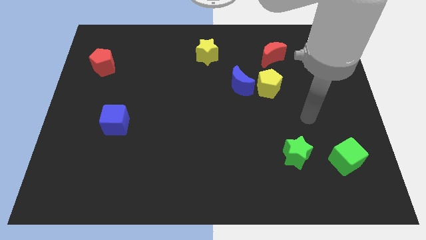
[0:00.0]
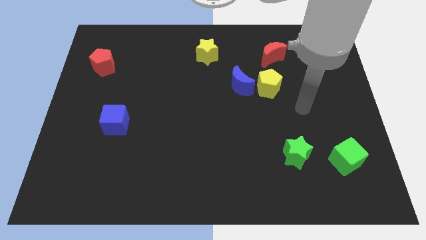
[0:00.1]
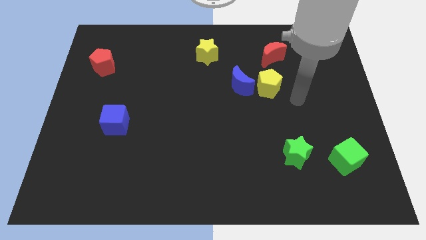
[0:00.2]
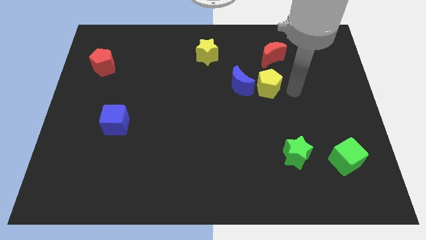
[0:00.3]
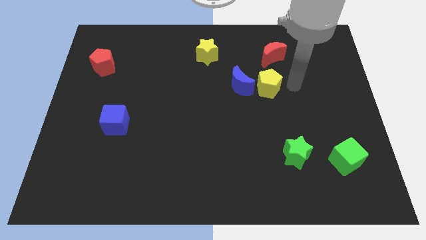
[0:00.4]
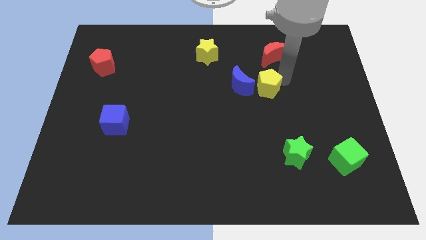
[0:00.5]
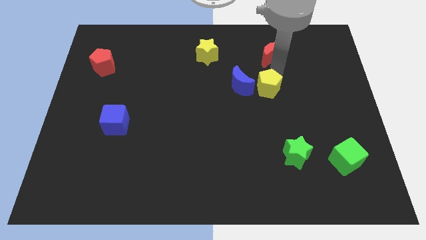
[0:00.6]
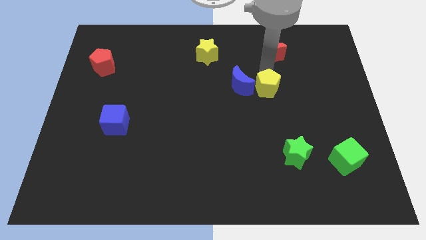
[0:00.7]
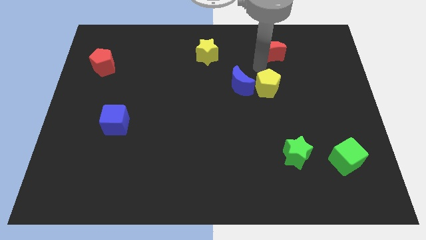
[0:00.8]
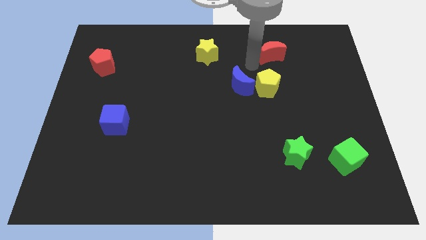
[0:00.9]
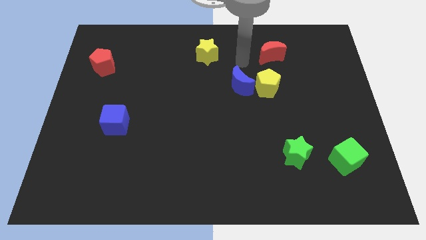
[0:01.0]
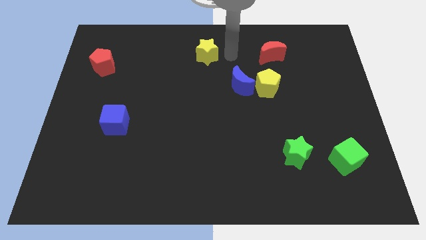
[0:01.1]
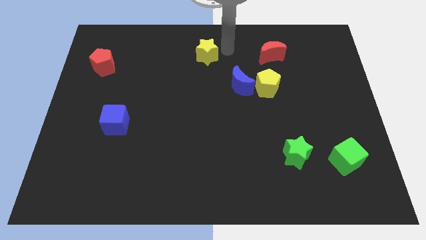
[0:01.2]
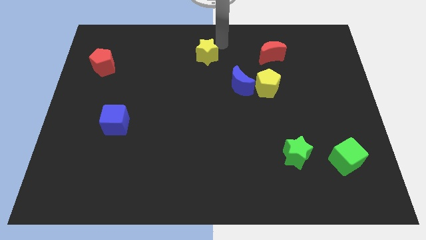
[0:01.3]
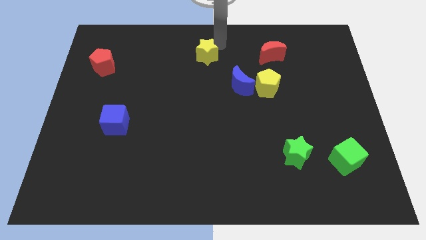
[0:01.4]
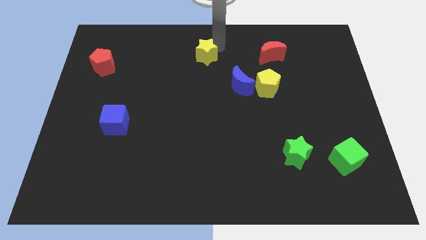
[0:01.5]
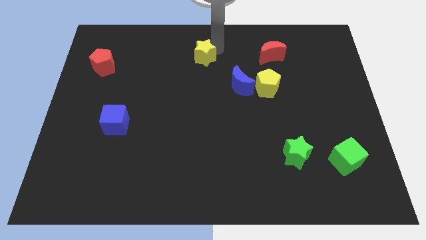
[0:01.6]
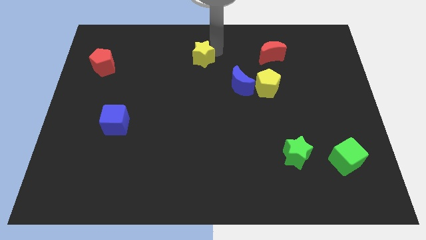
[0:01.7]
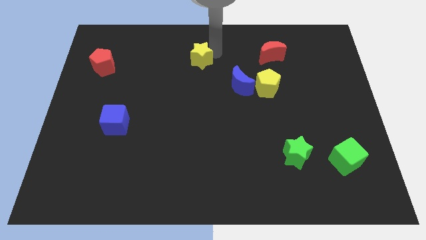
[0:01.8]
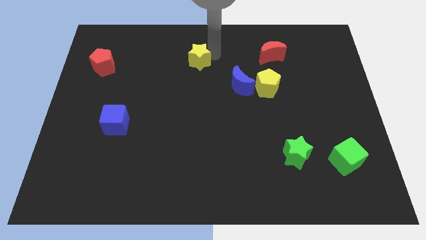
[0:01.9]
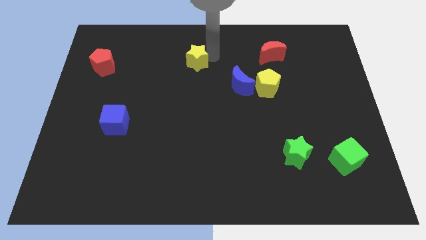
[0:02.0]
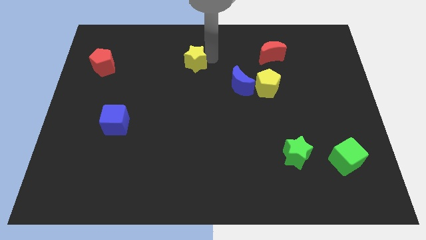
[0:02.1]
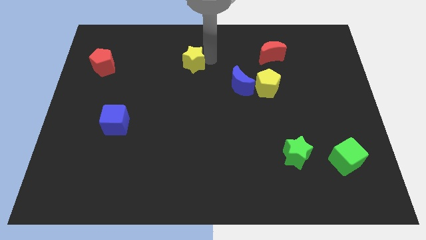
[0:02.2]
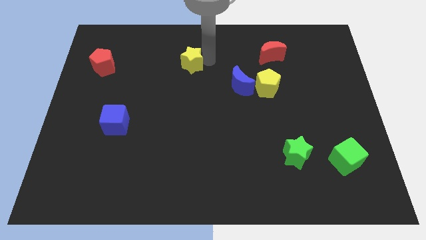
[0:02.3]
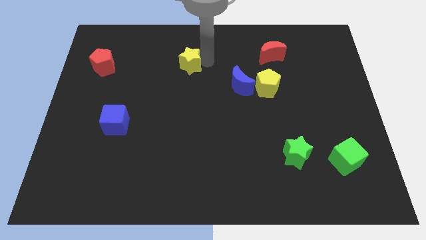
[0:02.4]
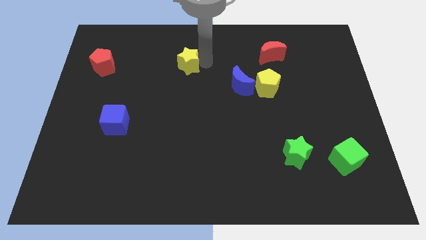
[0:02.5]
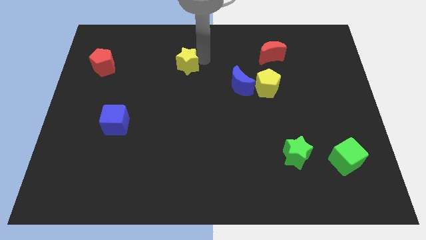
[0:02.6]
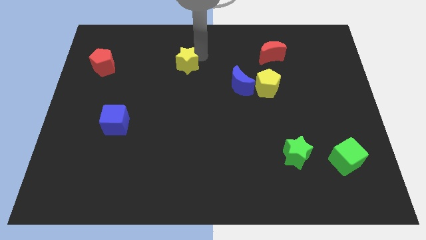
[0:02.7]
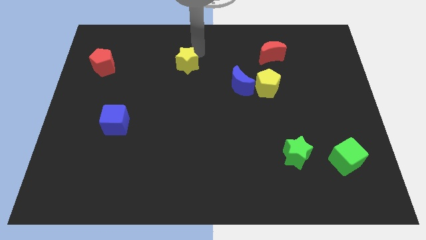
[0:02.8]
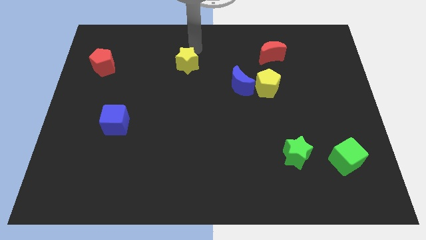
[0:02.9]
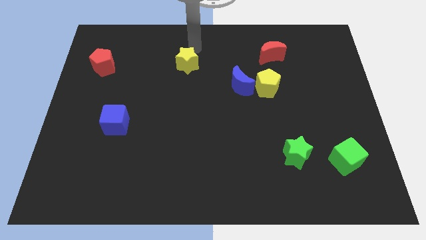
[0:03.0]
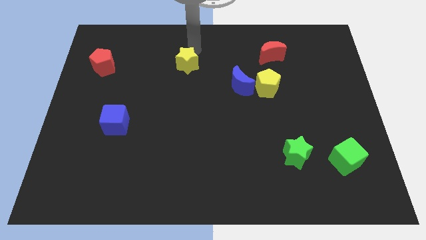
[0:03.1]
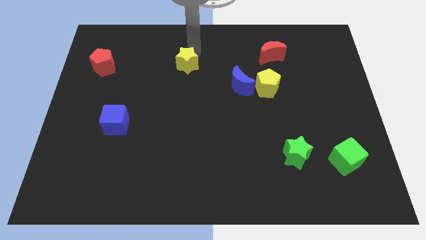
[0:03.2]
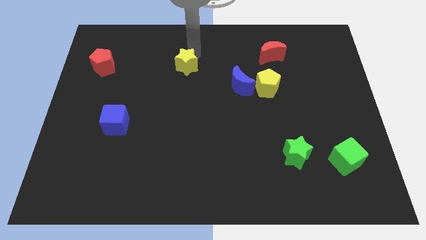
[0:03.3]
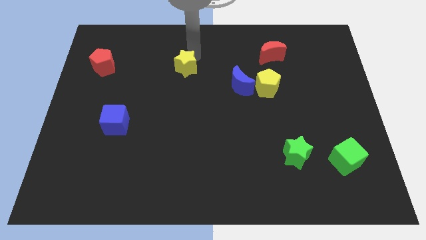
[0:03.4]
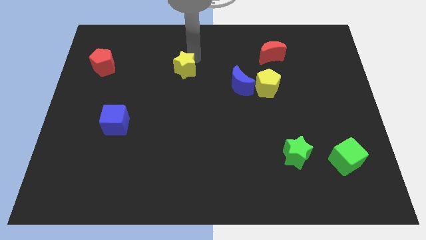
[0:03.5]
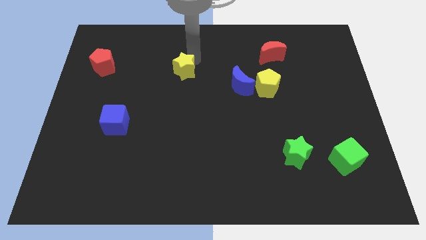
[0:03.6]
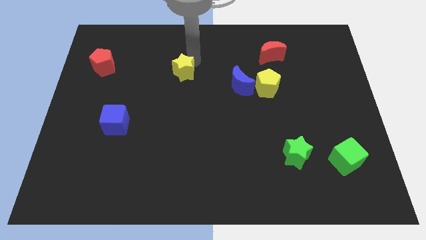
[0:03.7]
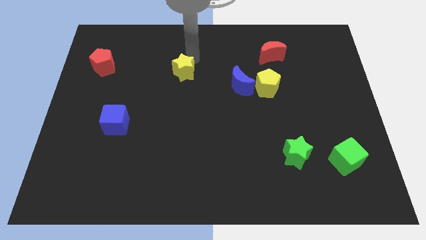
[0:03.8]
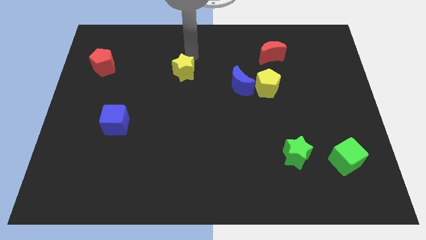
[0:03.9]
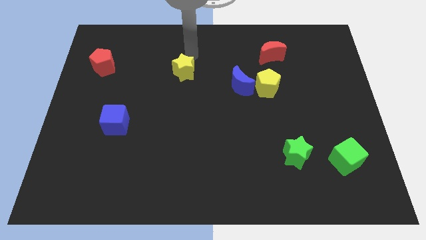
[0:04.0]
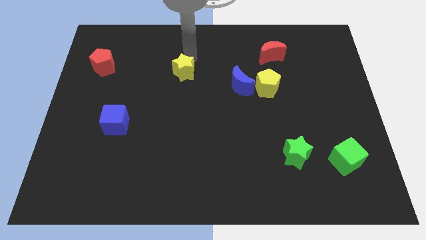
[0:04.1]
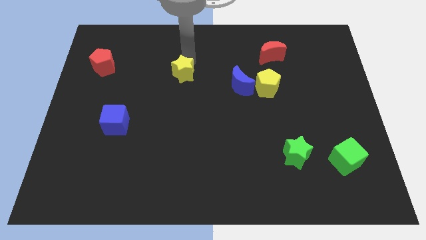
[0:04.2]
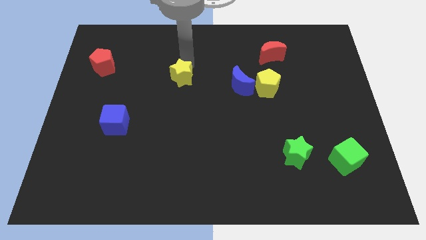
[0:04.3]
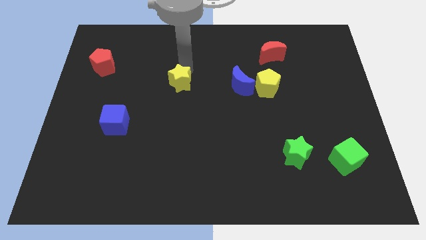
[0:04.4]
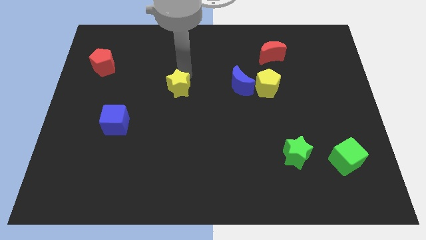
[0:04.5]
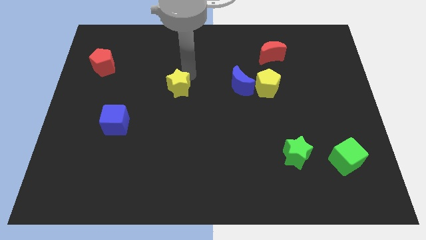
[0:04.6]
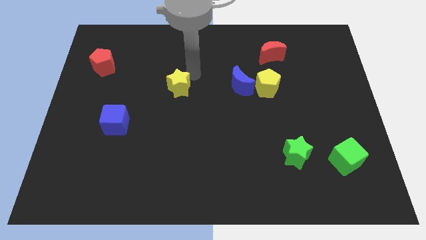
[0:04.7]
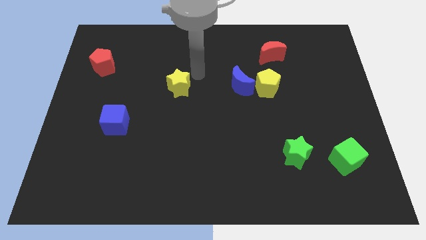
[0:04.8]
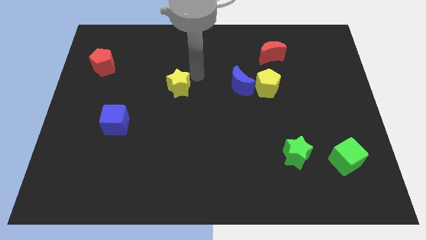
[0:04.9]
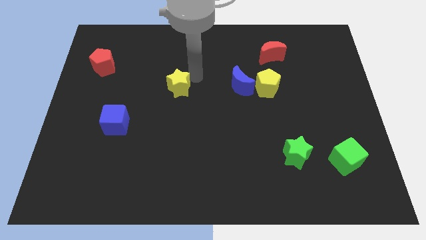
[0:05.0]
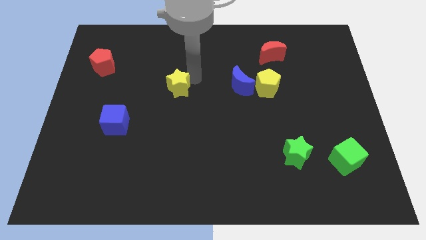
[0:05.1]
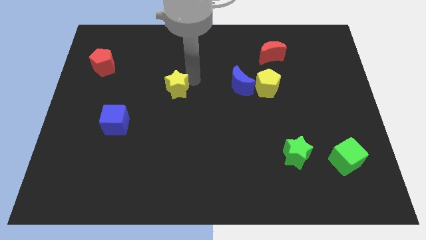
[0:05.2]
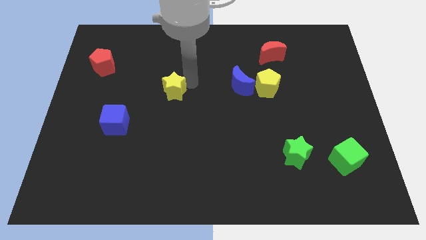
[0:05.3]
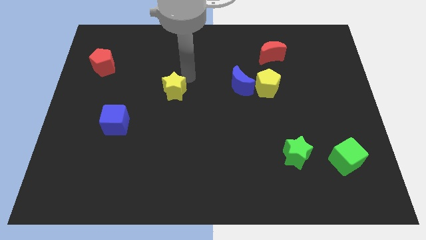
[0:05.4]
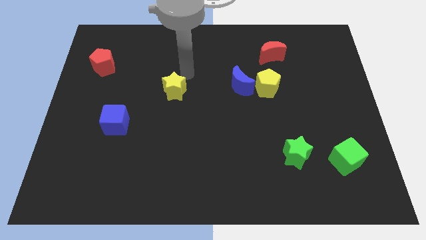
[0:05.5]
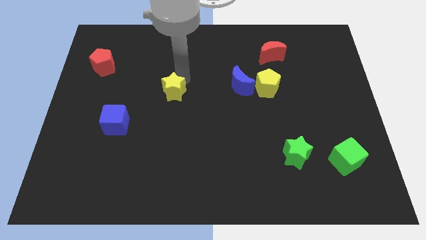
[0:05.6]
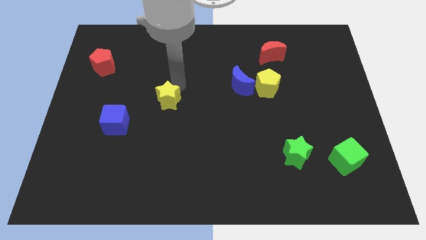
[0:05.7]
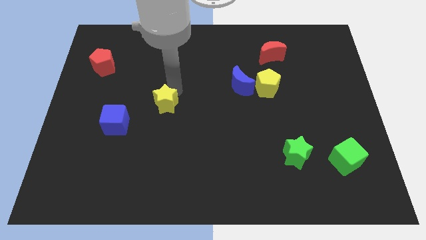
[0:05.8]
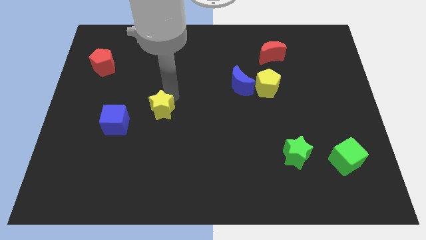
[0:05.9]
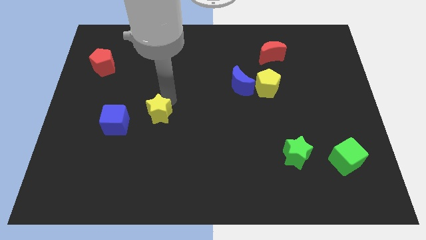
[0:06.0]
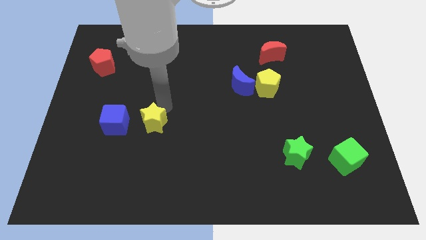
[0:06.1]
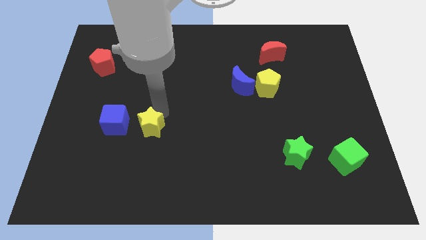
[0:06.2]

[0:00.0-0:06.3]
slide the yellow star to the bottom right side of the blue cube

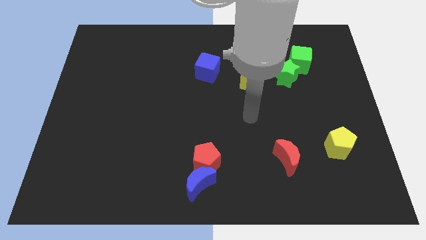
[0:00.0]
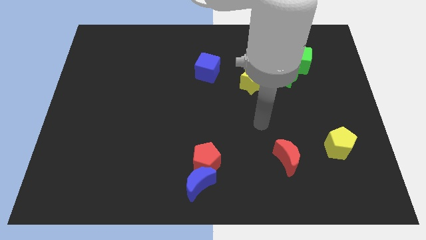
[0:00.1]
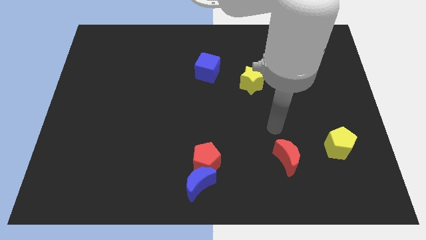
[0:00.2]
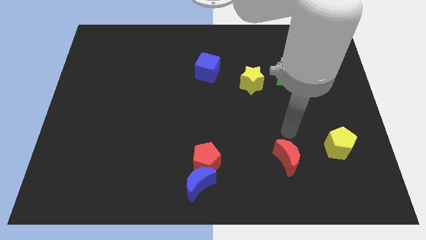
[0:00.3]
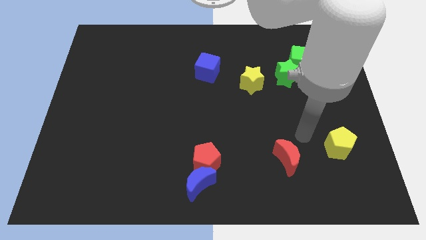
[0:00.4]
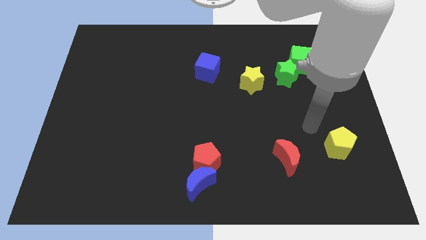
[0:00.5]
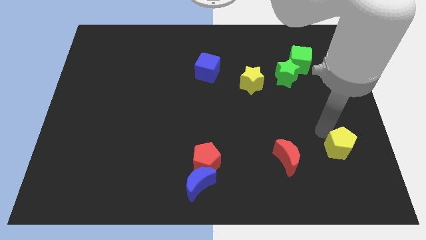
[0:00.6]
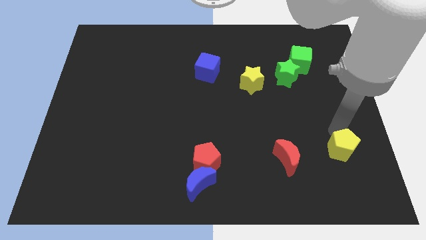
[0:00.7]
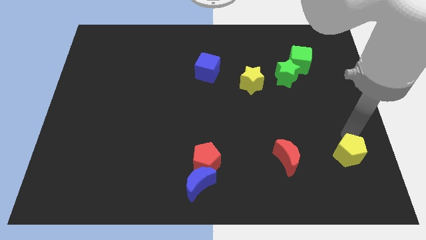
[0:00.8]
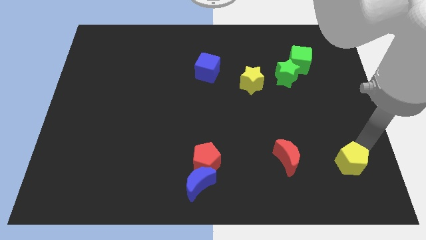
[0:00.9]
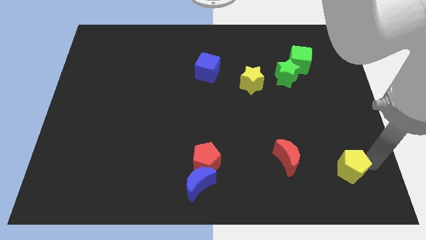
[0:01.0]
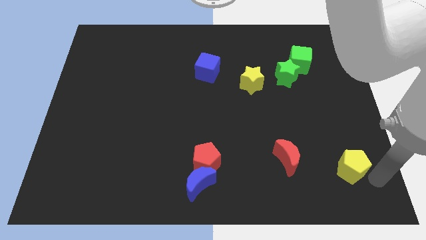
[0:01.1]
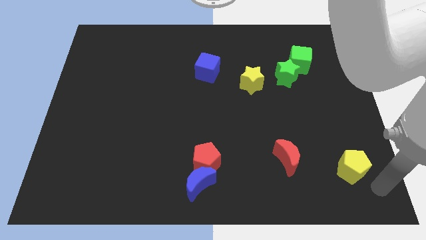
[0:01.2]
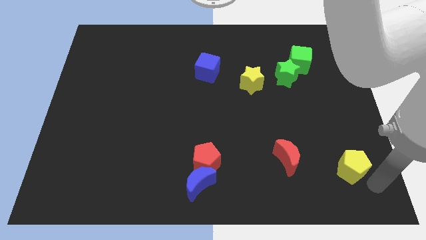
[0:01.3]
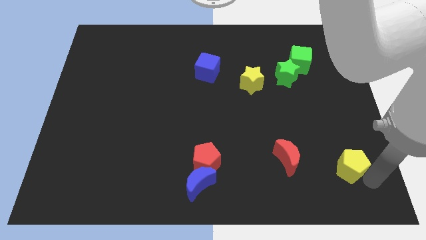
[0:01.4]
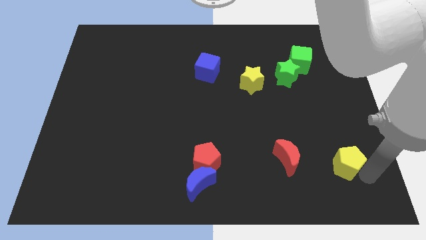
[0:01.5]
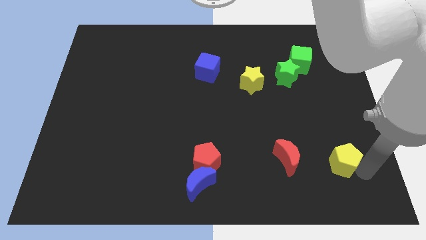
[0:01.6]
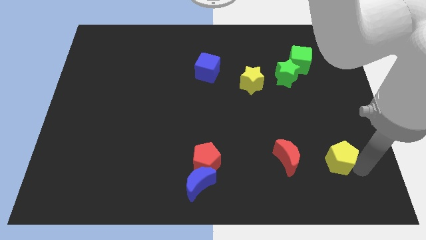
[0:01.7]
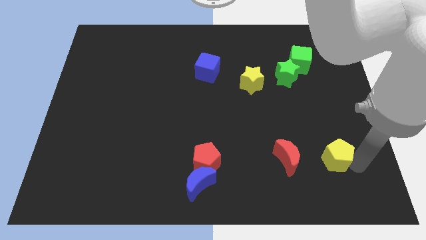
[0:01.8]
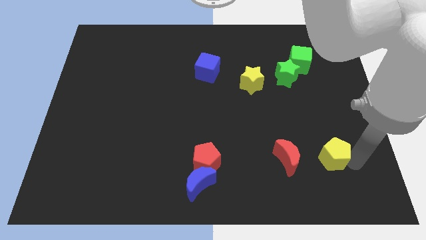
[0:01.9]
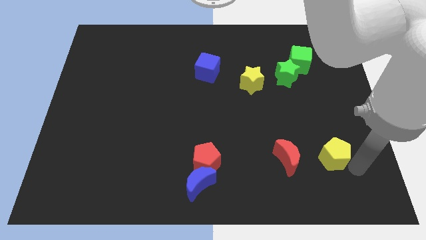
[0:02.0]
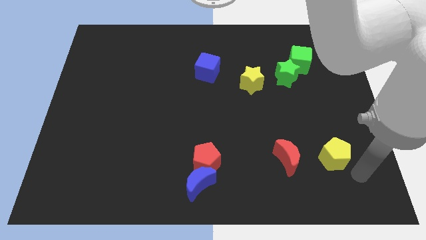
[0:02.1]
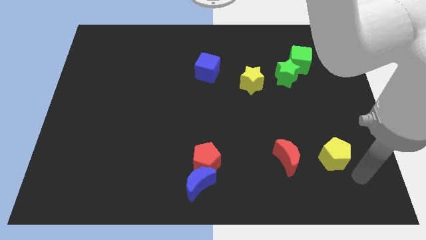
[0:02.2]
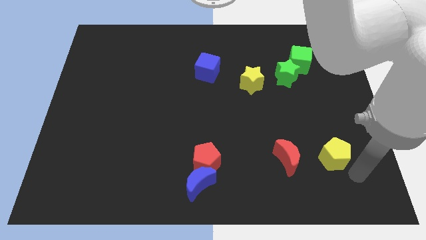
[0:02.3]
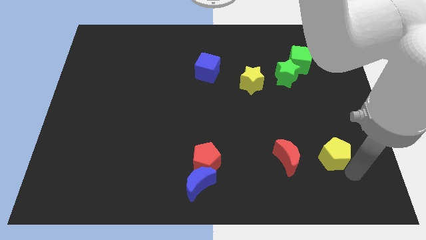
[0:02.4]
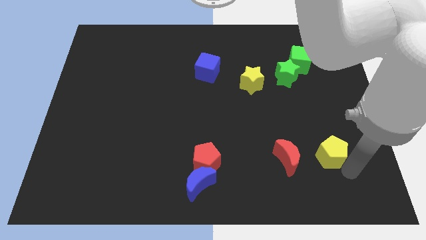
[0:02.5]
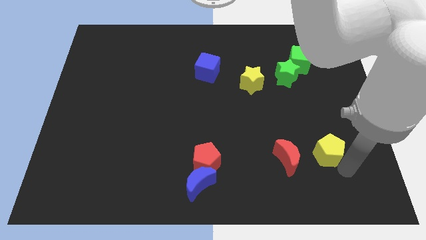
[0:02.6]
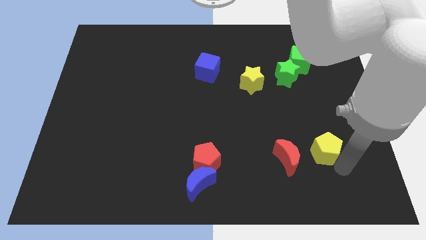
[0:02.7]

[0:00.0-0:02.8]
put the yellow pentagon to the top right of the red moon
